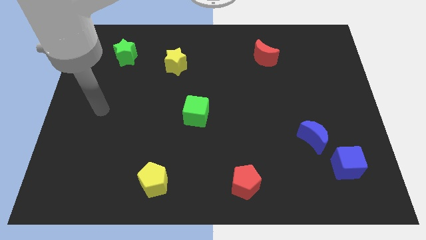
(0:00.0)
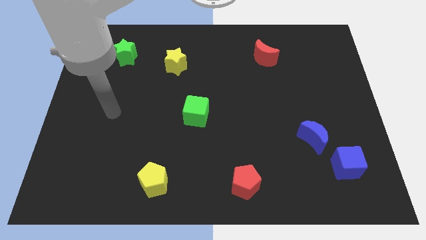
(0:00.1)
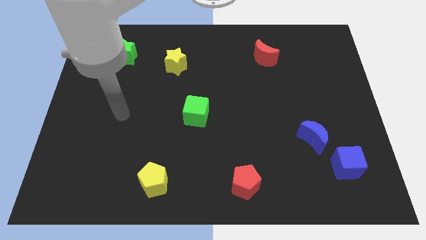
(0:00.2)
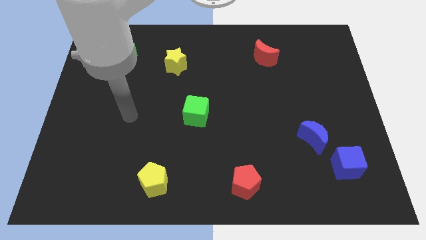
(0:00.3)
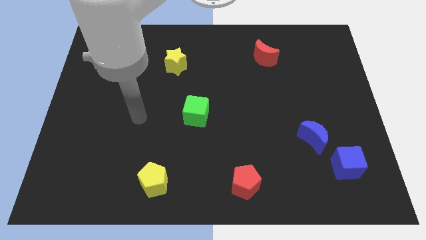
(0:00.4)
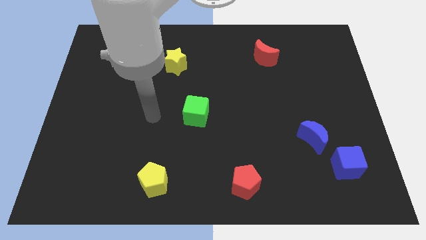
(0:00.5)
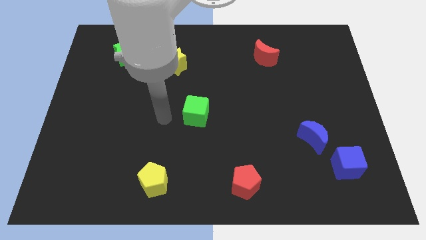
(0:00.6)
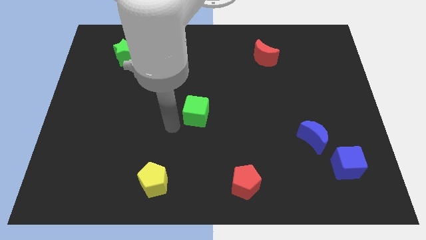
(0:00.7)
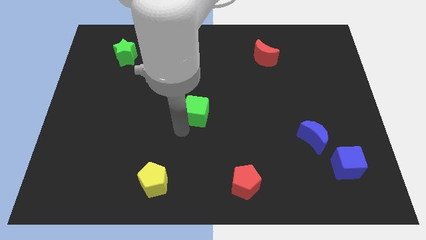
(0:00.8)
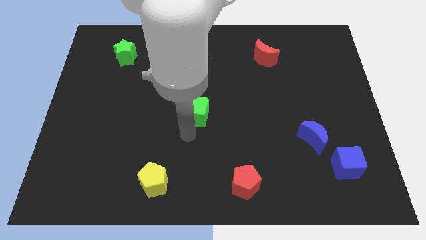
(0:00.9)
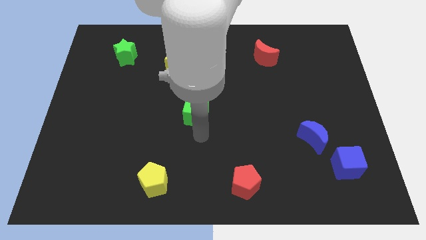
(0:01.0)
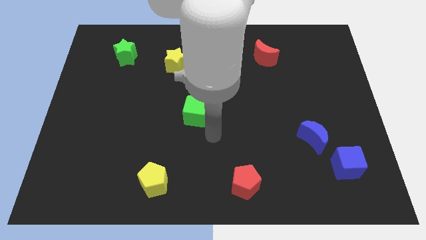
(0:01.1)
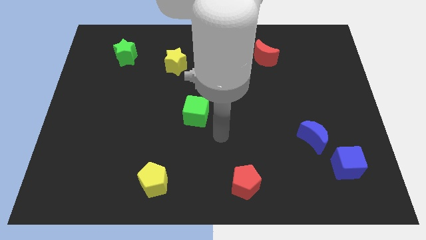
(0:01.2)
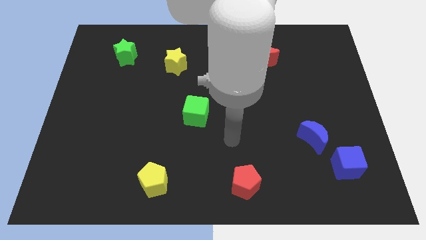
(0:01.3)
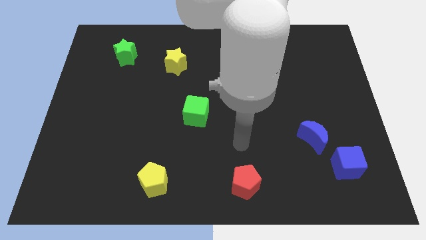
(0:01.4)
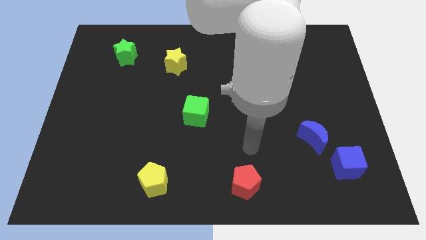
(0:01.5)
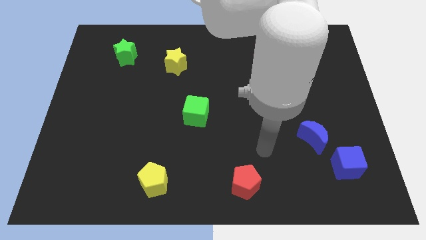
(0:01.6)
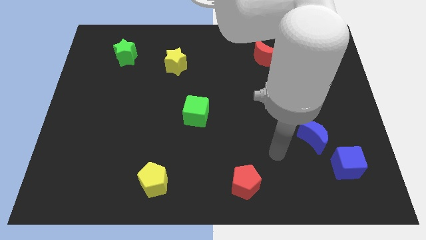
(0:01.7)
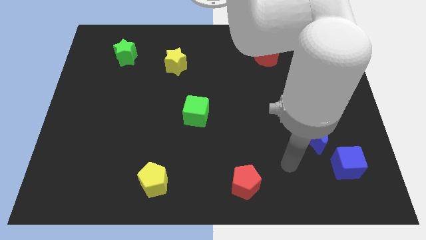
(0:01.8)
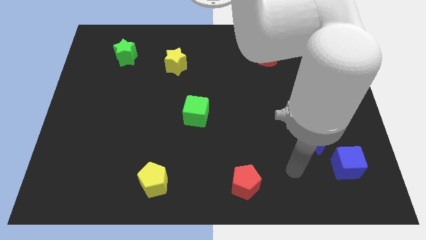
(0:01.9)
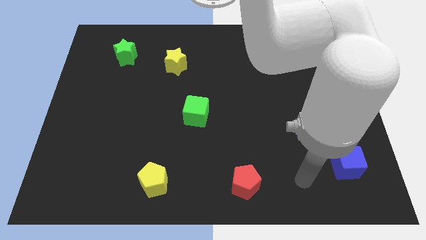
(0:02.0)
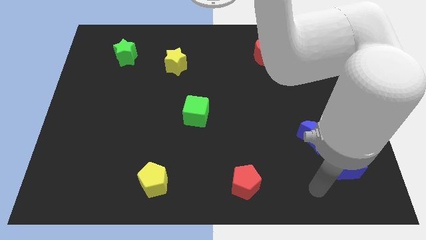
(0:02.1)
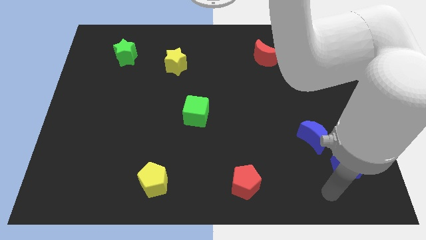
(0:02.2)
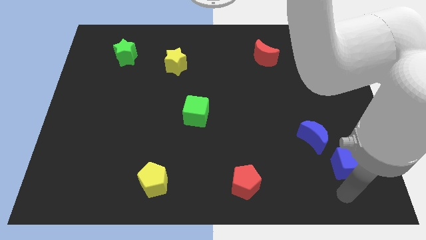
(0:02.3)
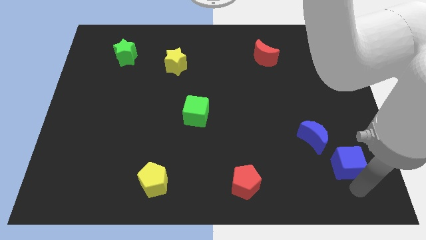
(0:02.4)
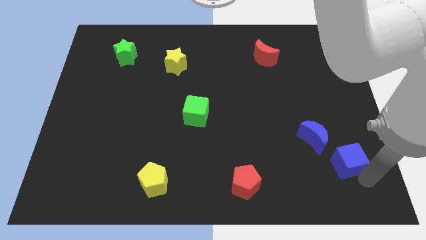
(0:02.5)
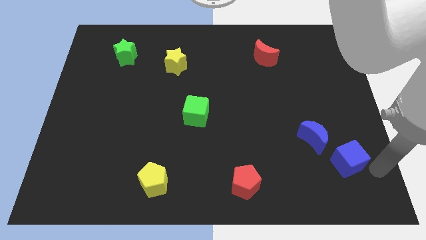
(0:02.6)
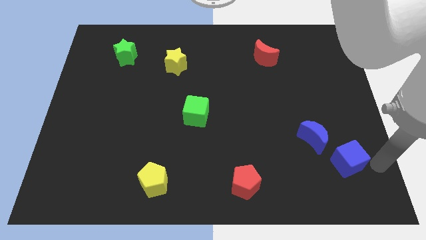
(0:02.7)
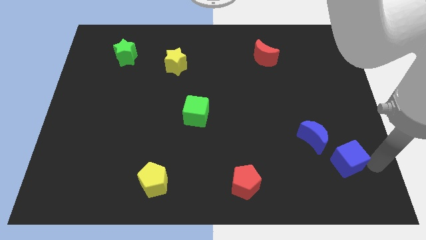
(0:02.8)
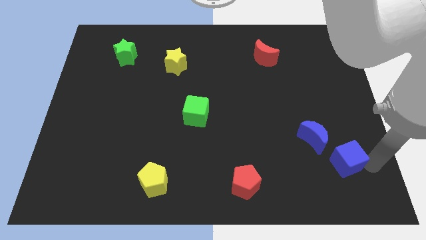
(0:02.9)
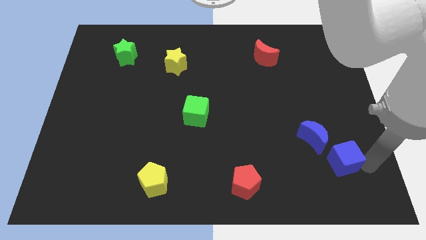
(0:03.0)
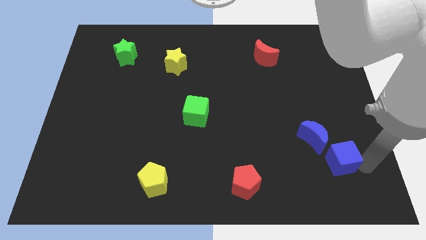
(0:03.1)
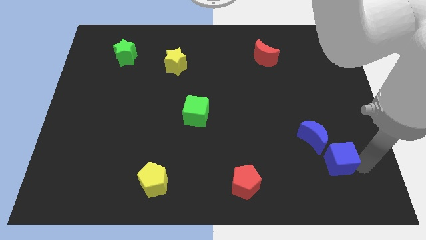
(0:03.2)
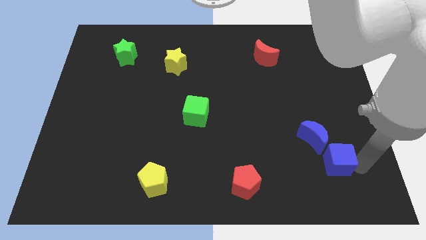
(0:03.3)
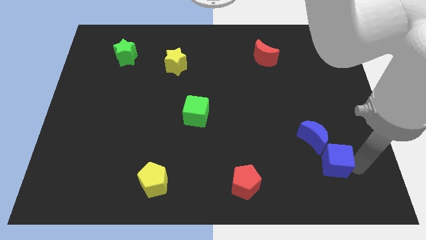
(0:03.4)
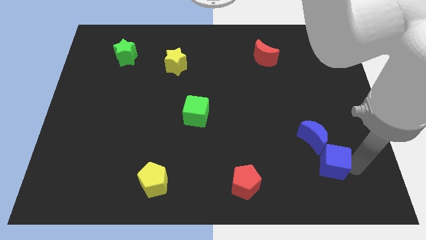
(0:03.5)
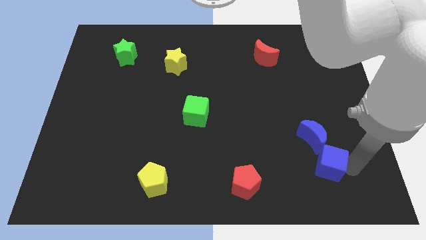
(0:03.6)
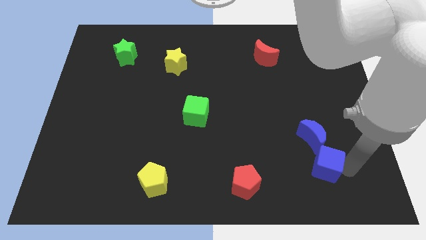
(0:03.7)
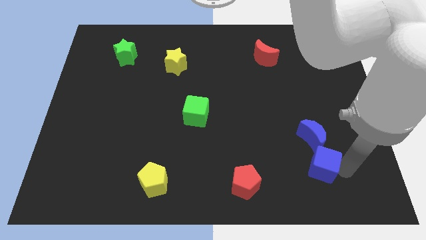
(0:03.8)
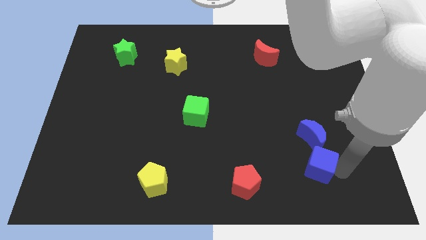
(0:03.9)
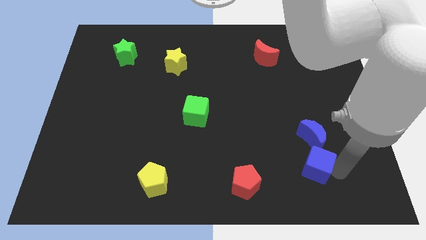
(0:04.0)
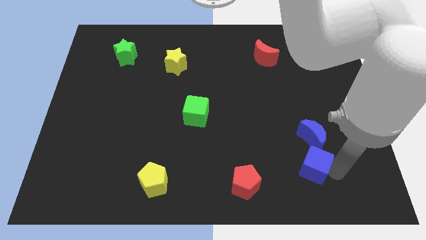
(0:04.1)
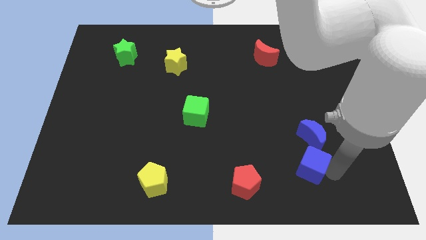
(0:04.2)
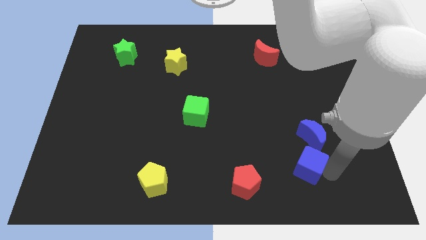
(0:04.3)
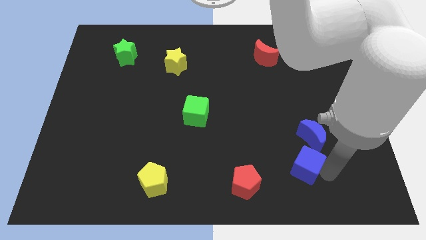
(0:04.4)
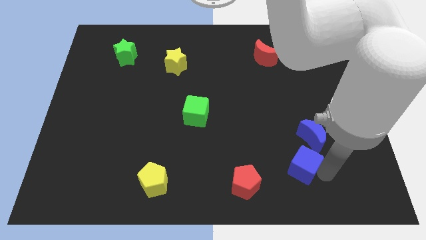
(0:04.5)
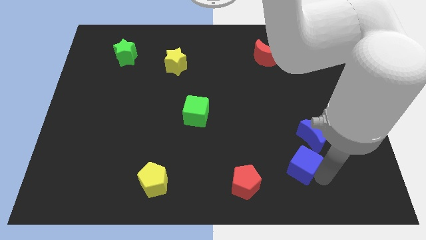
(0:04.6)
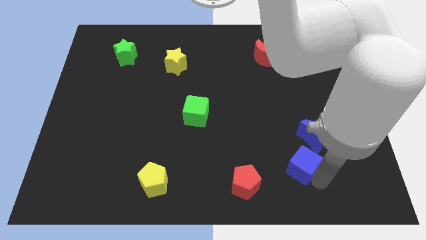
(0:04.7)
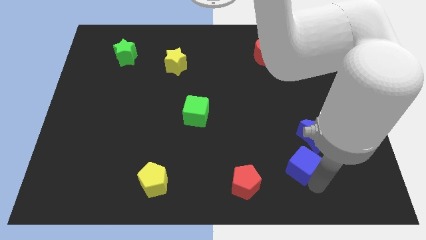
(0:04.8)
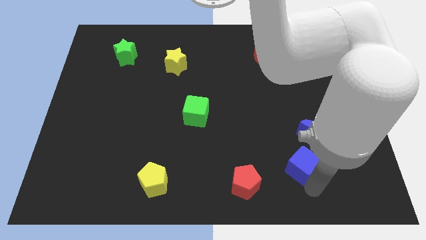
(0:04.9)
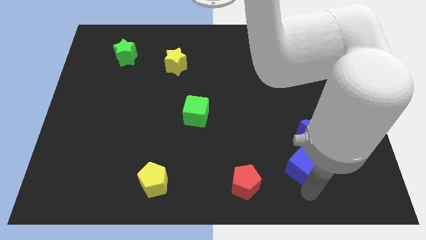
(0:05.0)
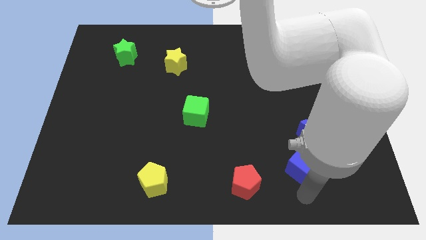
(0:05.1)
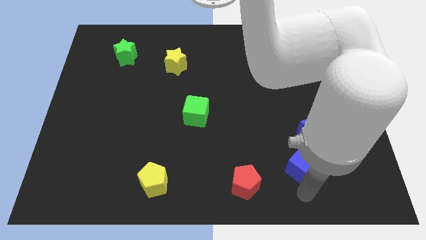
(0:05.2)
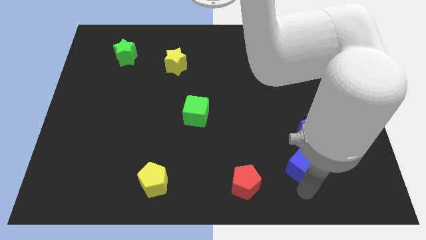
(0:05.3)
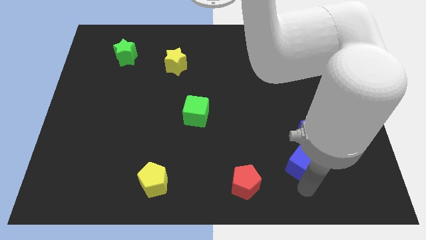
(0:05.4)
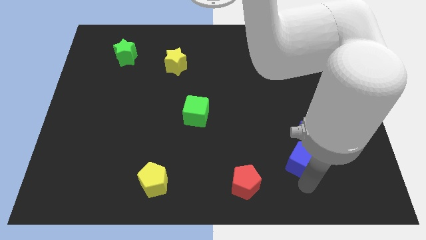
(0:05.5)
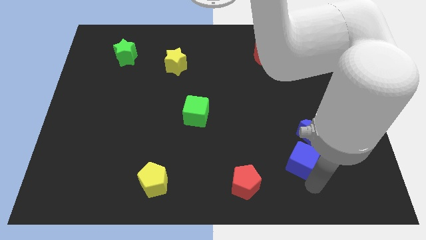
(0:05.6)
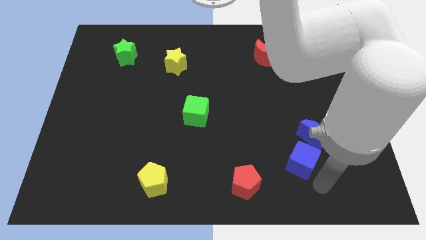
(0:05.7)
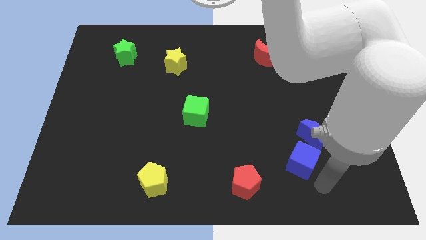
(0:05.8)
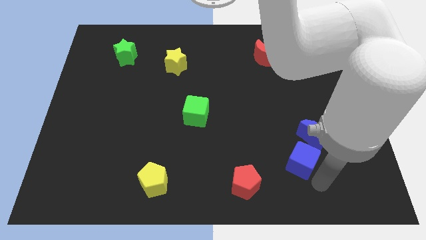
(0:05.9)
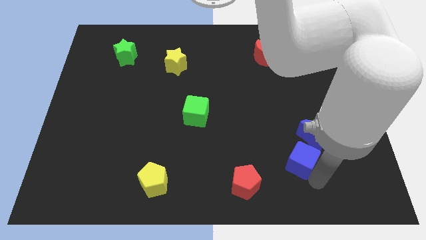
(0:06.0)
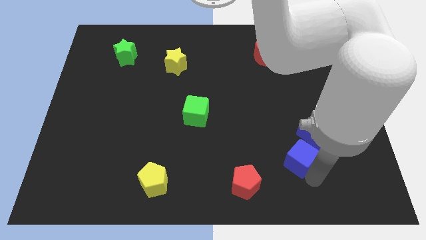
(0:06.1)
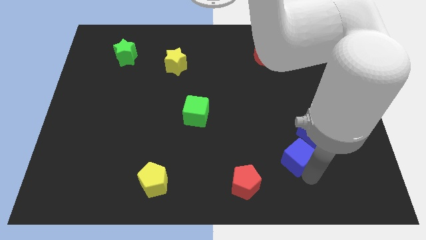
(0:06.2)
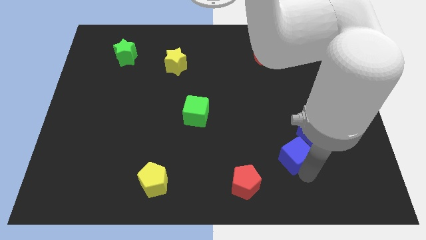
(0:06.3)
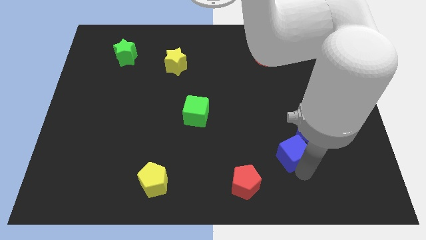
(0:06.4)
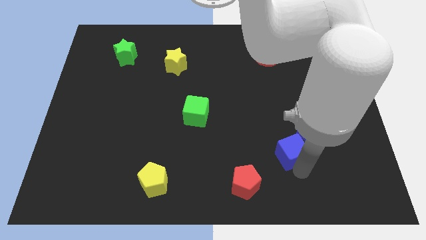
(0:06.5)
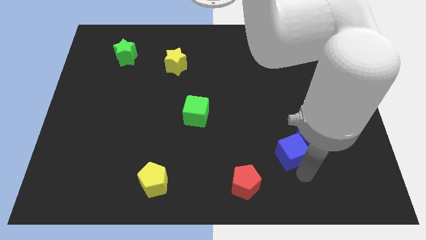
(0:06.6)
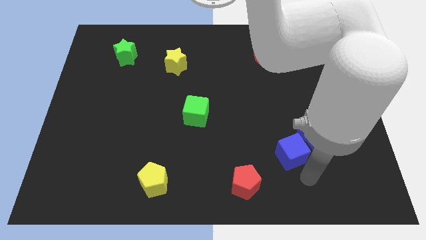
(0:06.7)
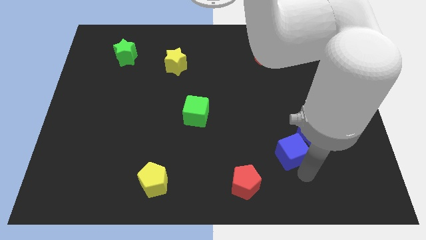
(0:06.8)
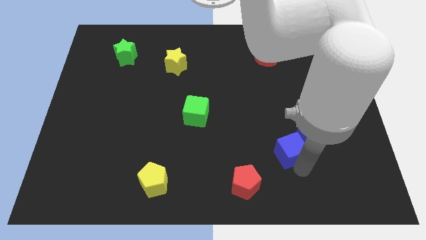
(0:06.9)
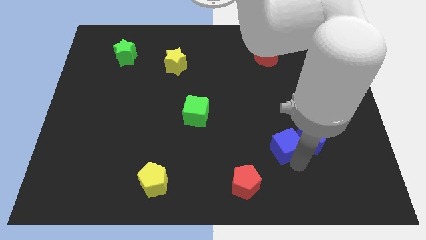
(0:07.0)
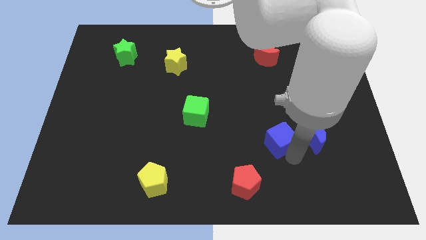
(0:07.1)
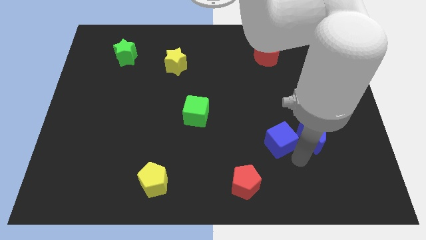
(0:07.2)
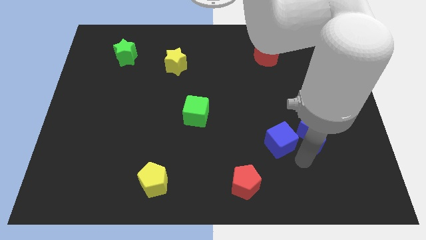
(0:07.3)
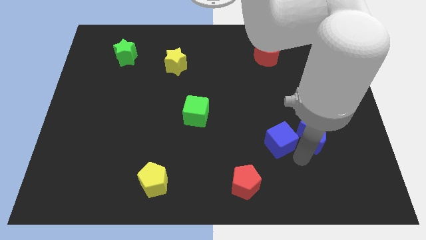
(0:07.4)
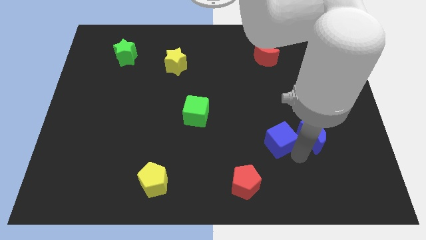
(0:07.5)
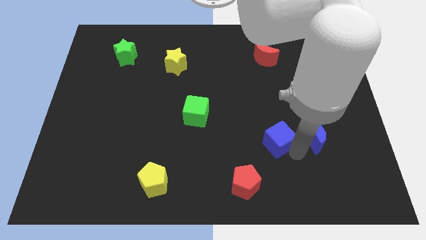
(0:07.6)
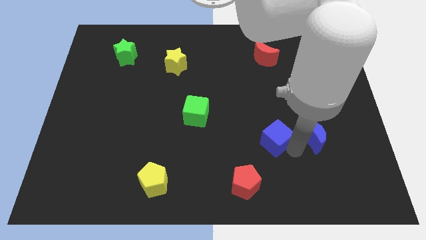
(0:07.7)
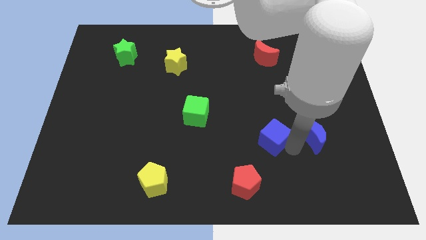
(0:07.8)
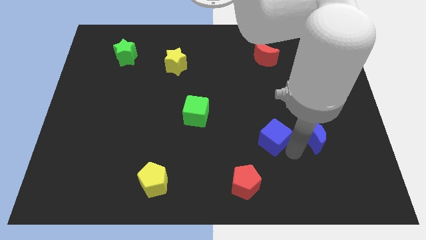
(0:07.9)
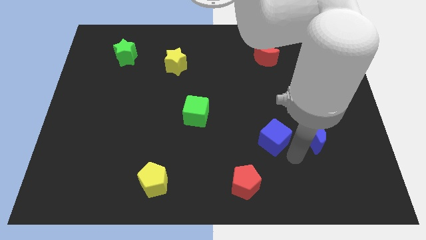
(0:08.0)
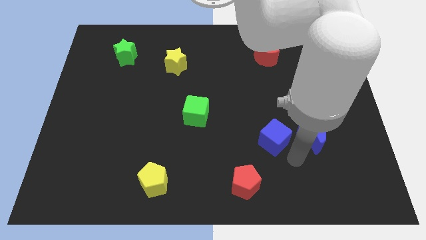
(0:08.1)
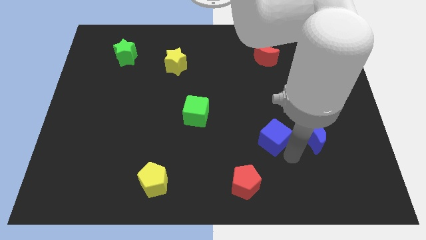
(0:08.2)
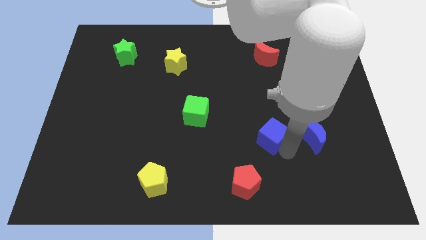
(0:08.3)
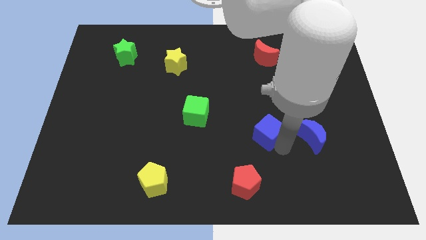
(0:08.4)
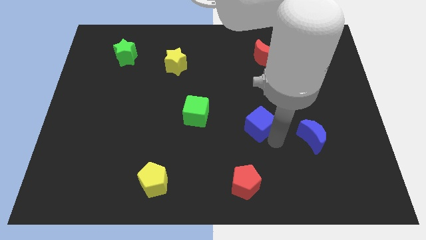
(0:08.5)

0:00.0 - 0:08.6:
move the blue cube to the right side of the green cube
